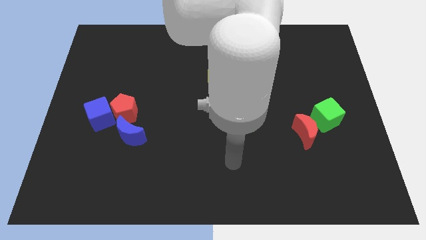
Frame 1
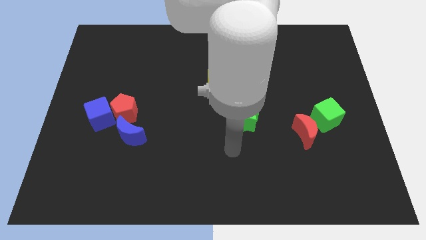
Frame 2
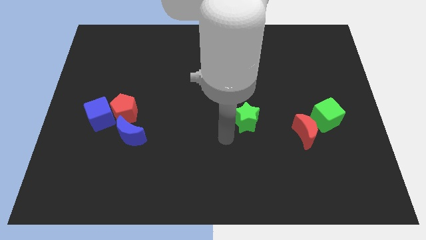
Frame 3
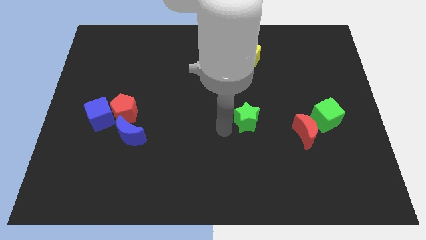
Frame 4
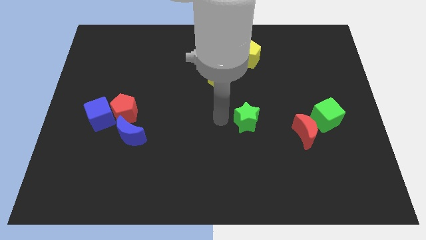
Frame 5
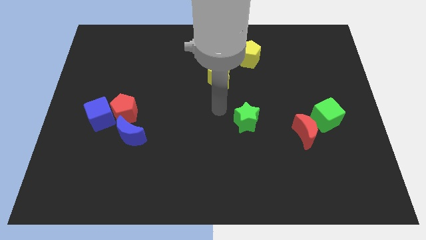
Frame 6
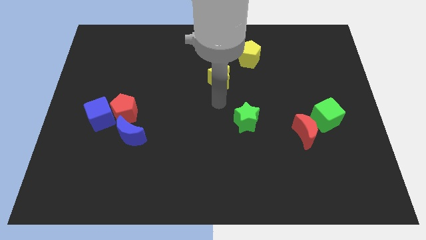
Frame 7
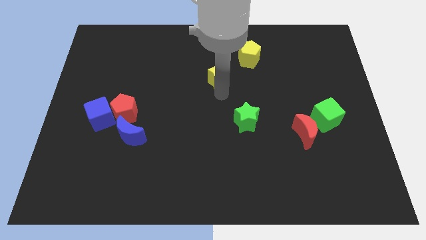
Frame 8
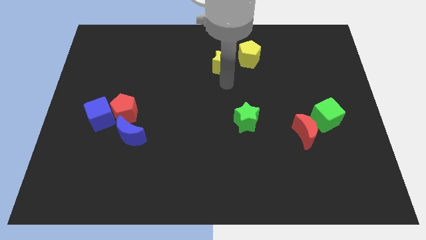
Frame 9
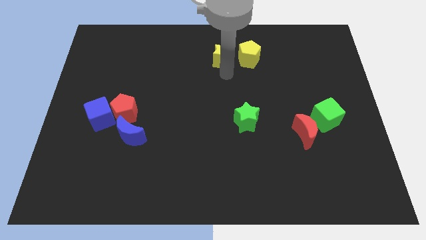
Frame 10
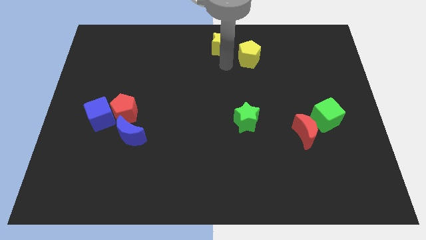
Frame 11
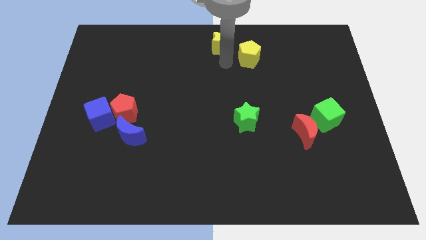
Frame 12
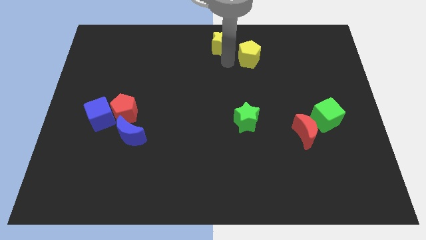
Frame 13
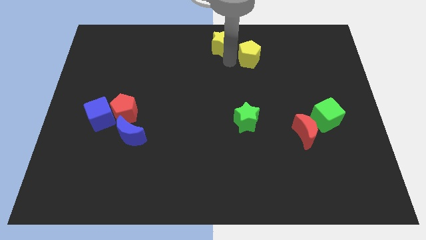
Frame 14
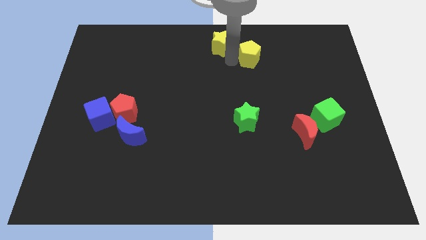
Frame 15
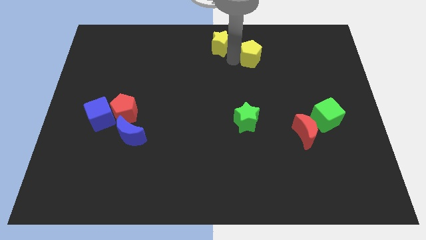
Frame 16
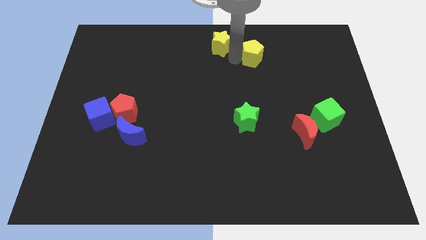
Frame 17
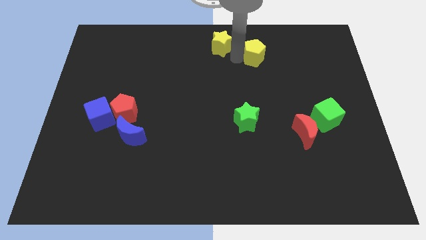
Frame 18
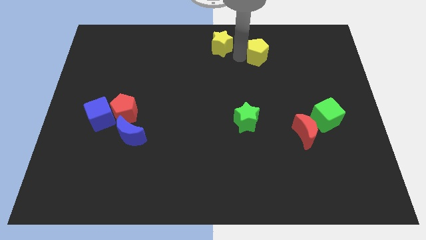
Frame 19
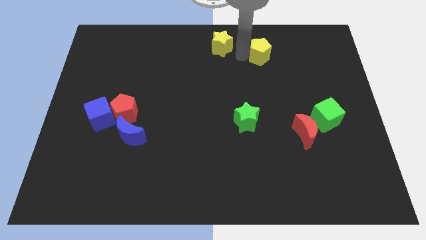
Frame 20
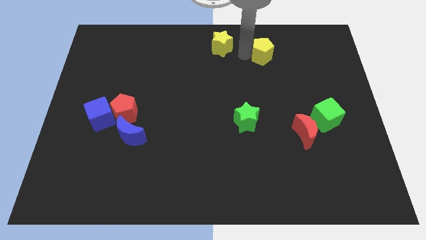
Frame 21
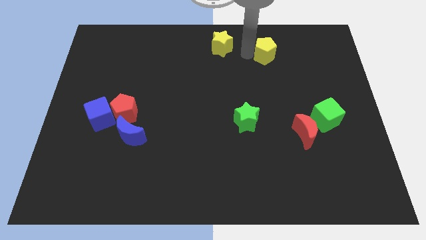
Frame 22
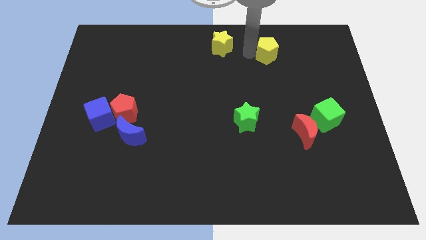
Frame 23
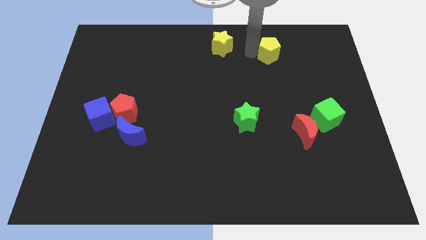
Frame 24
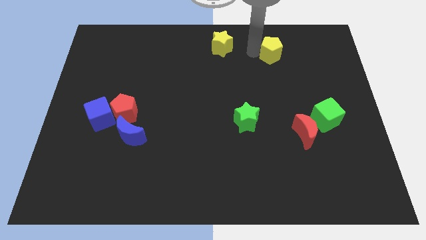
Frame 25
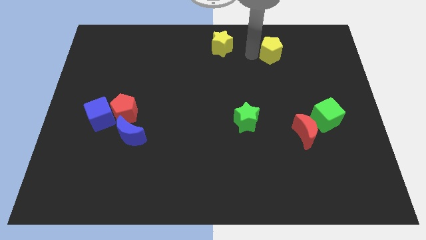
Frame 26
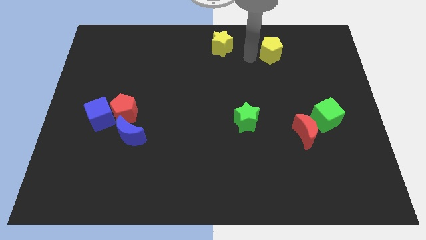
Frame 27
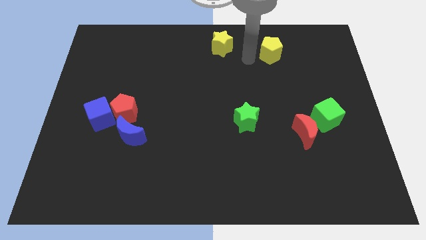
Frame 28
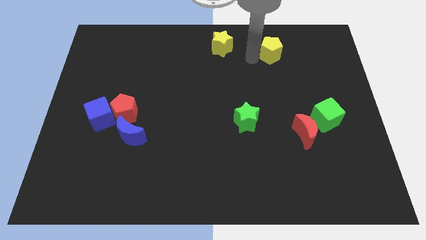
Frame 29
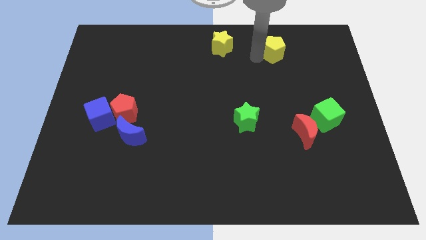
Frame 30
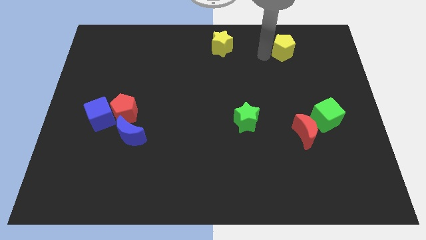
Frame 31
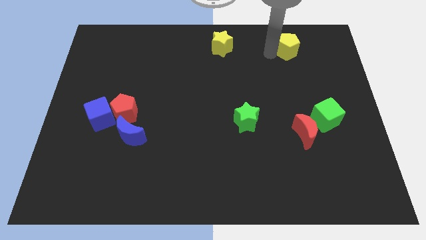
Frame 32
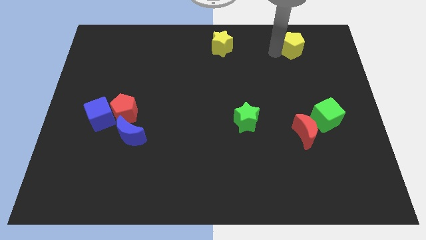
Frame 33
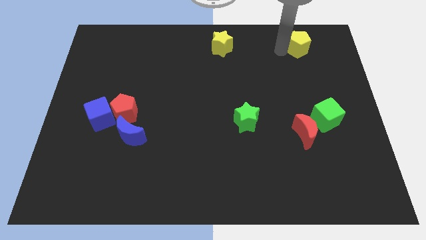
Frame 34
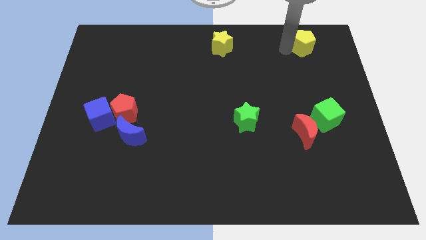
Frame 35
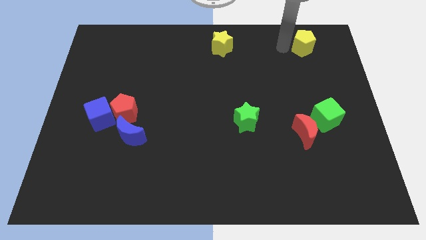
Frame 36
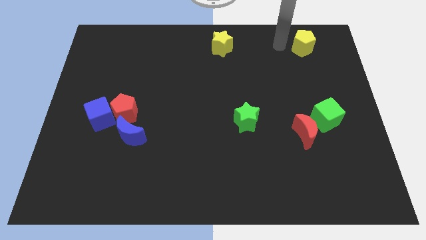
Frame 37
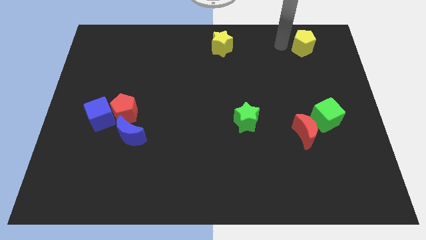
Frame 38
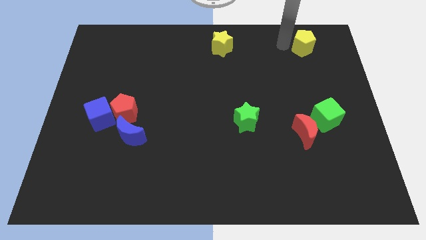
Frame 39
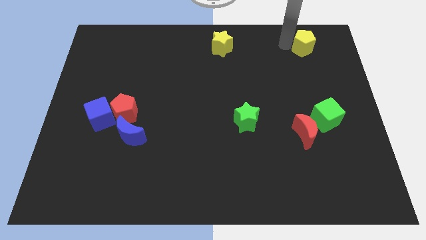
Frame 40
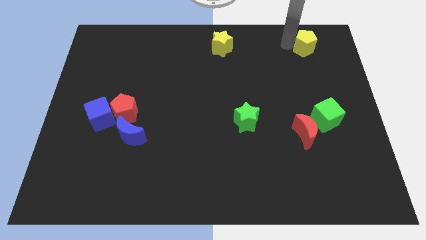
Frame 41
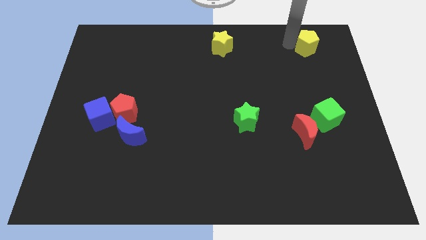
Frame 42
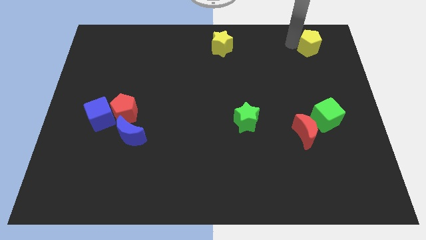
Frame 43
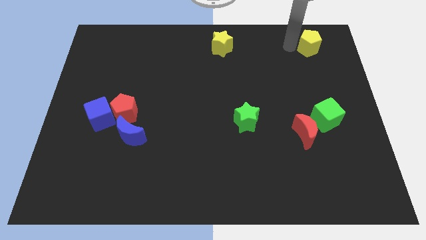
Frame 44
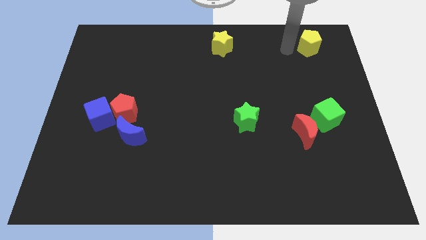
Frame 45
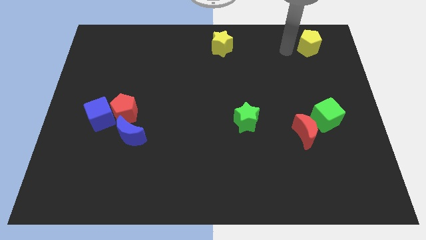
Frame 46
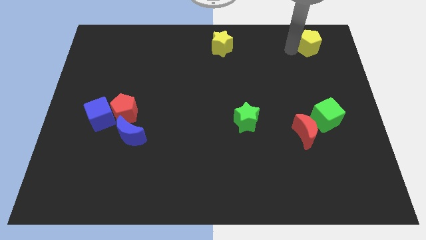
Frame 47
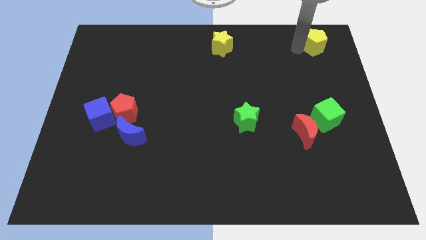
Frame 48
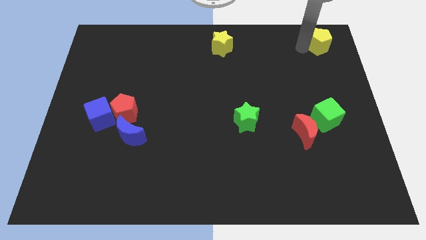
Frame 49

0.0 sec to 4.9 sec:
put the yellow pentagon to the upper right corner

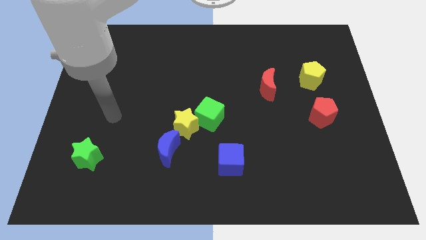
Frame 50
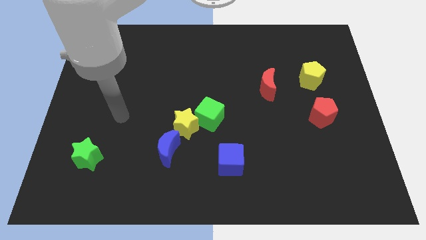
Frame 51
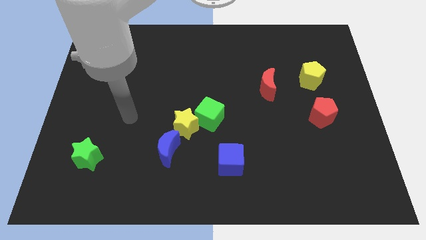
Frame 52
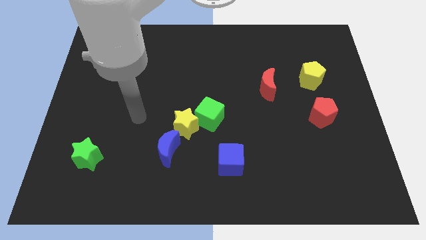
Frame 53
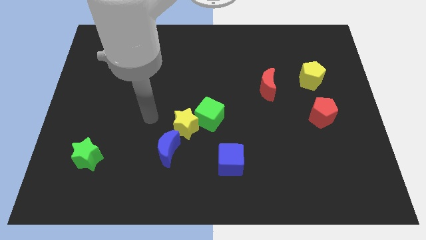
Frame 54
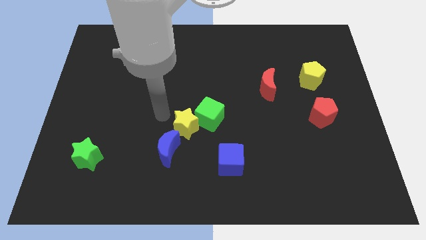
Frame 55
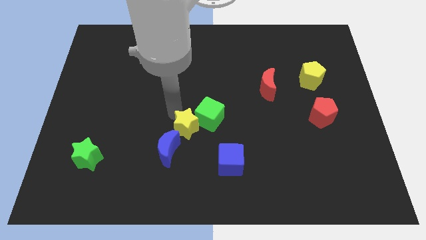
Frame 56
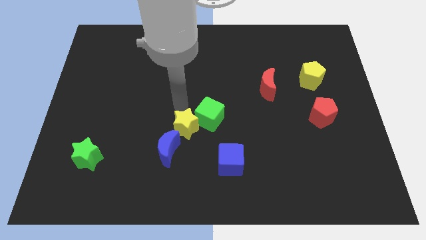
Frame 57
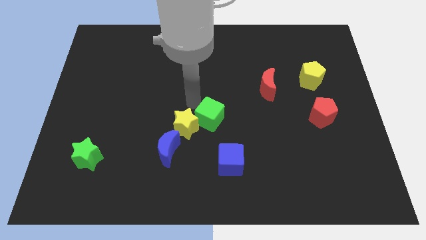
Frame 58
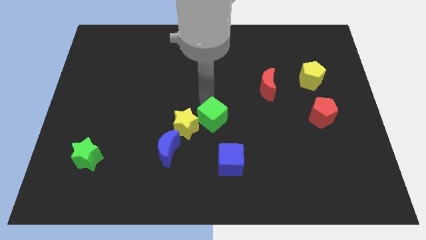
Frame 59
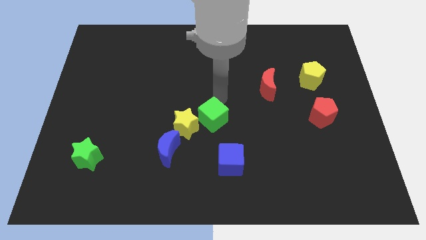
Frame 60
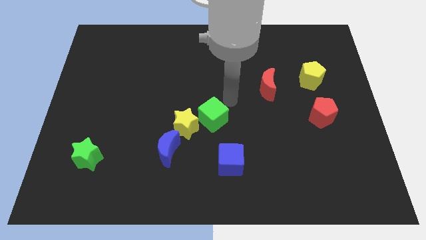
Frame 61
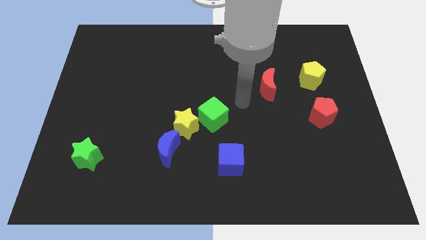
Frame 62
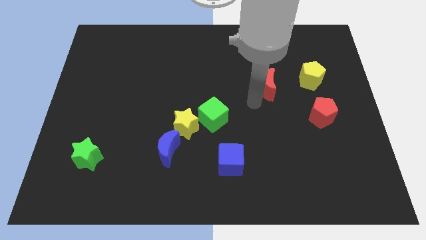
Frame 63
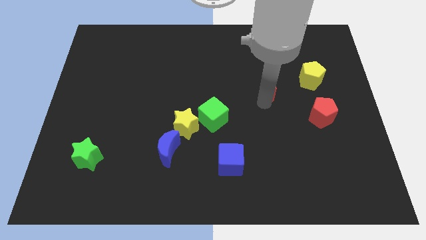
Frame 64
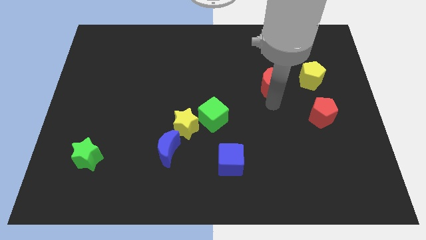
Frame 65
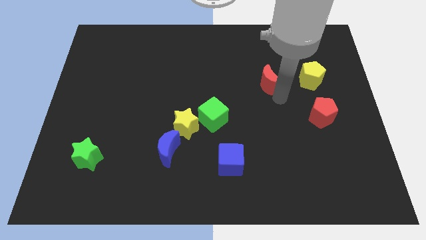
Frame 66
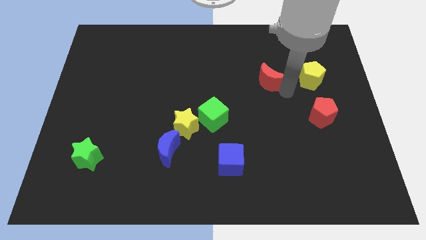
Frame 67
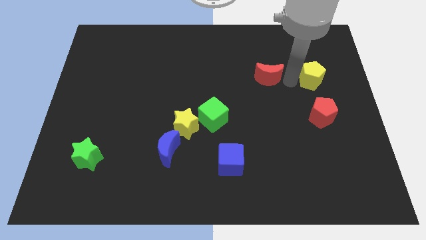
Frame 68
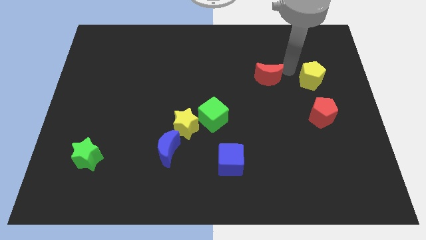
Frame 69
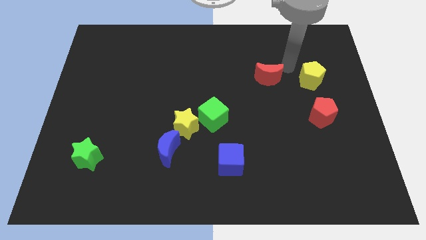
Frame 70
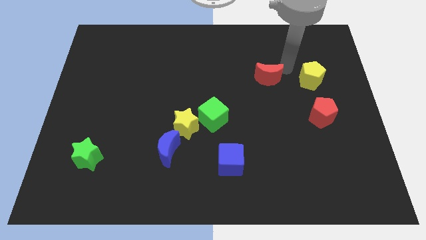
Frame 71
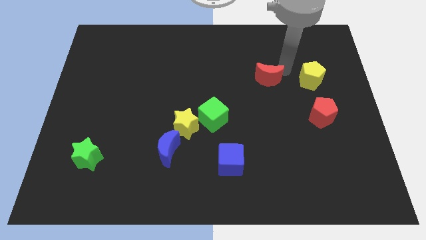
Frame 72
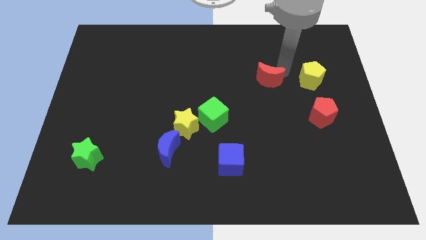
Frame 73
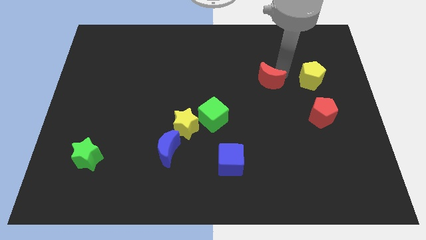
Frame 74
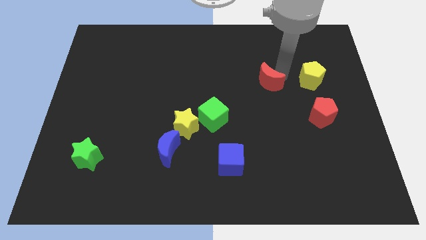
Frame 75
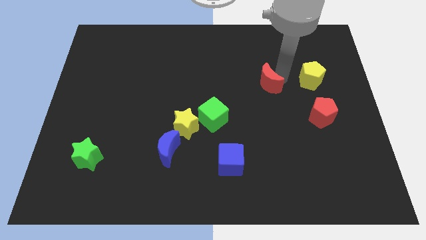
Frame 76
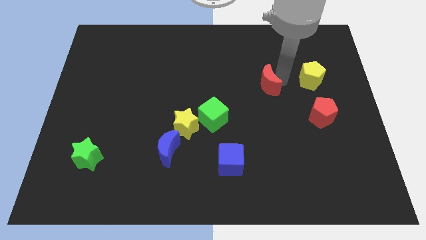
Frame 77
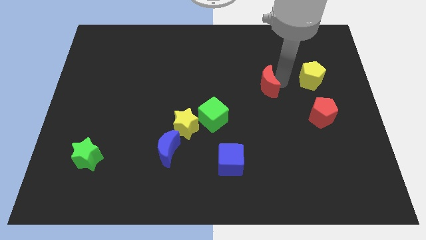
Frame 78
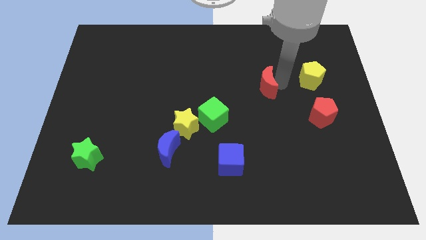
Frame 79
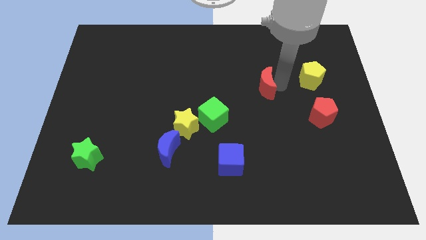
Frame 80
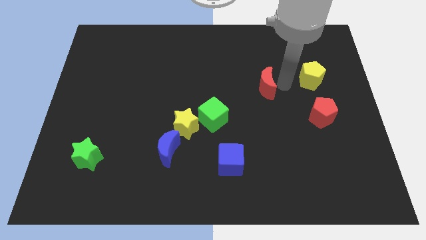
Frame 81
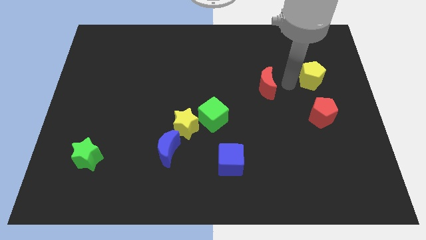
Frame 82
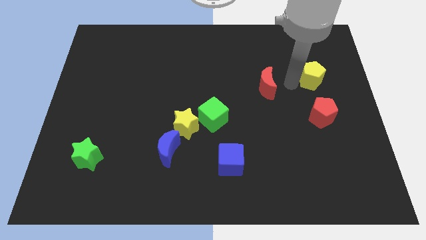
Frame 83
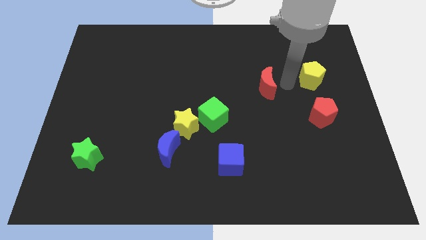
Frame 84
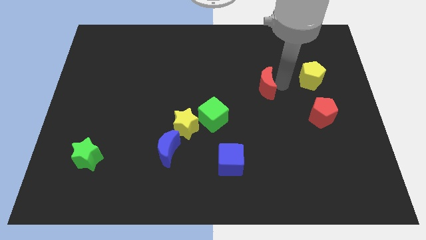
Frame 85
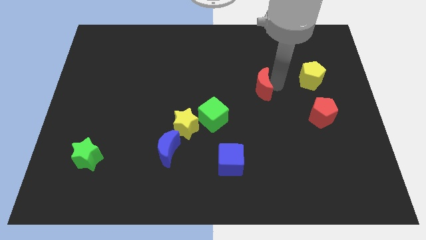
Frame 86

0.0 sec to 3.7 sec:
push the red moon to the center of the board
